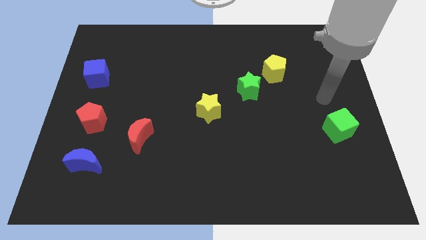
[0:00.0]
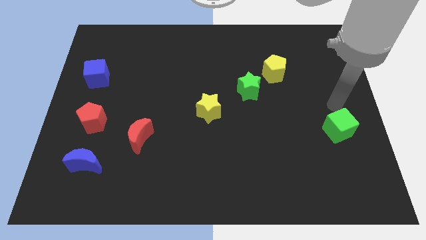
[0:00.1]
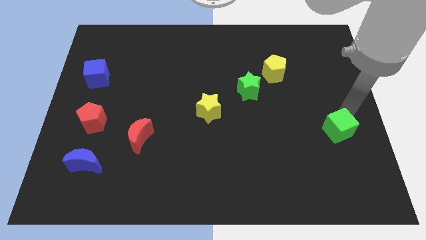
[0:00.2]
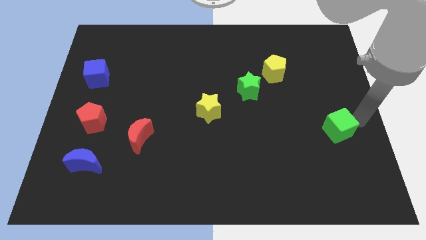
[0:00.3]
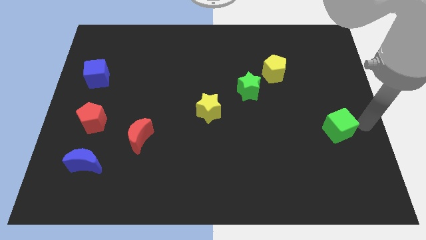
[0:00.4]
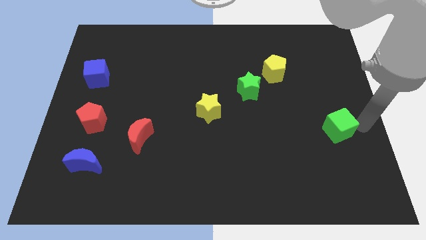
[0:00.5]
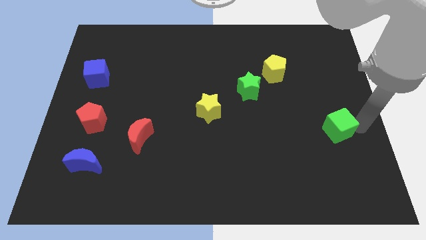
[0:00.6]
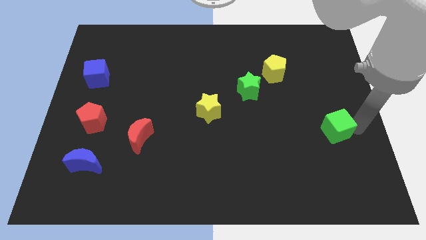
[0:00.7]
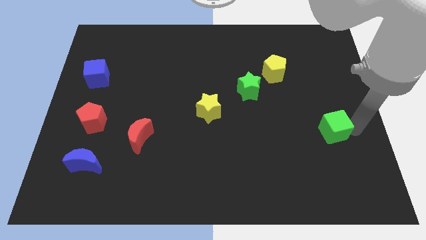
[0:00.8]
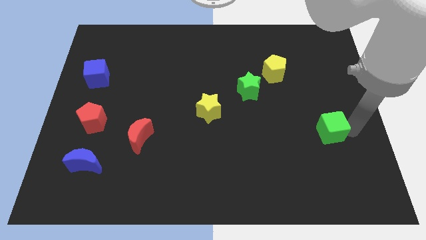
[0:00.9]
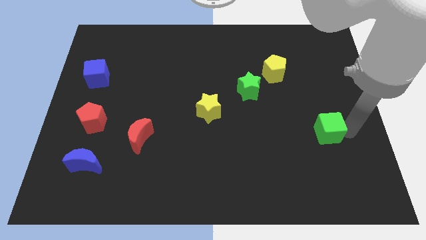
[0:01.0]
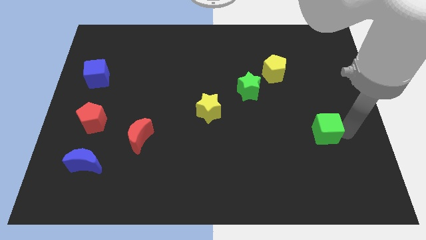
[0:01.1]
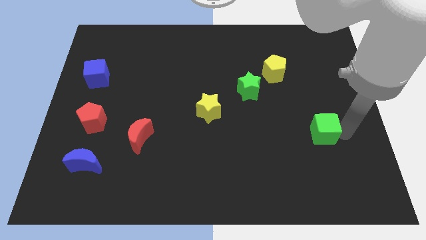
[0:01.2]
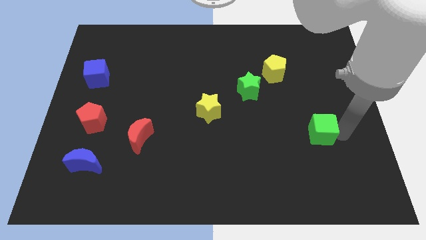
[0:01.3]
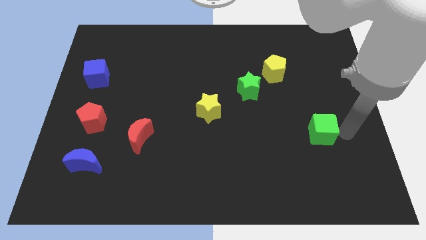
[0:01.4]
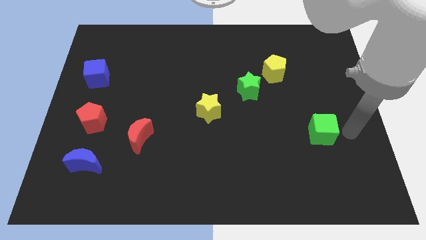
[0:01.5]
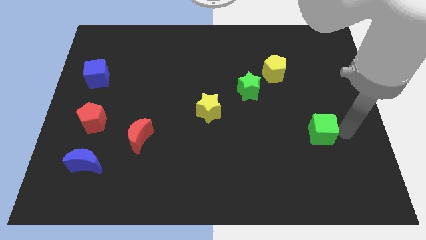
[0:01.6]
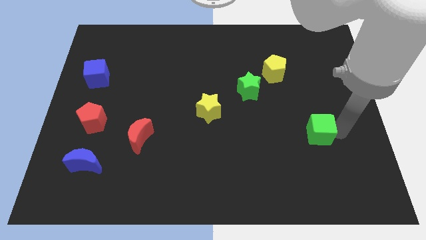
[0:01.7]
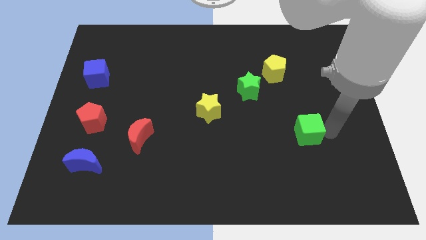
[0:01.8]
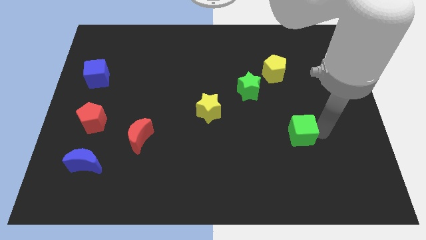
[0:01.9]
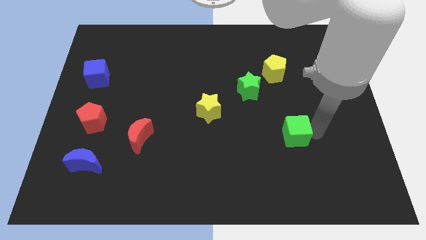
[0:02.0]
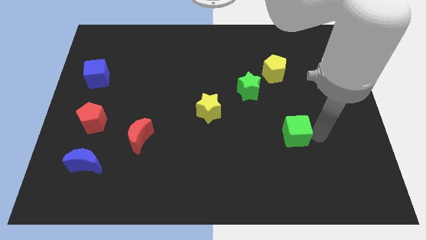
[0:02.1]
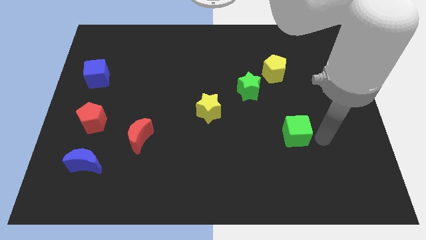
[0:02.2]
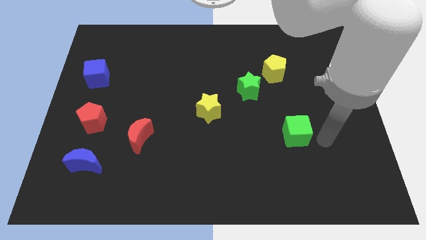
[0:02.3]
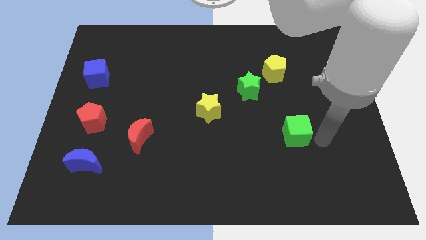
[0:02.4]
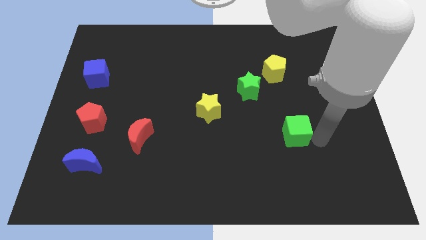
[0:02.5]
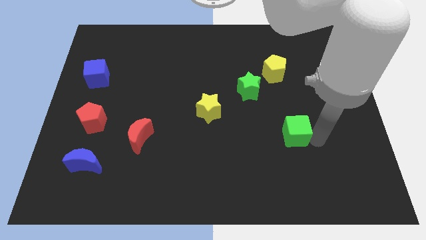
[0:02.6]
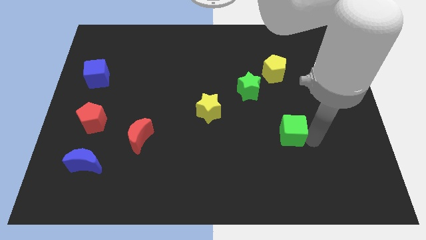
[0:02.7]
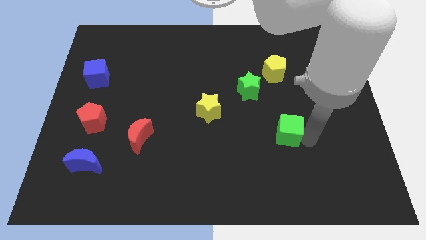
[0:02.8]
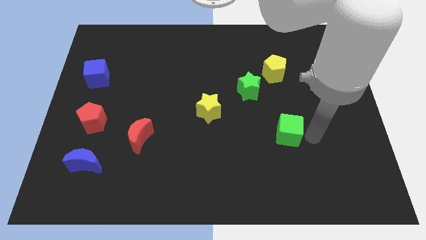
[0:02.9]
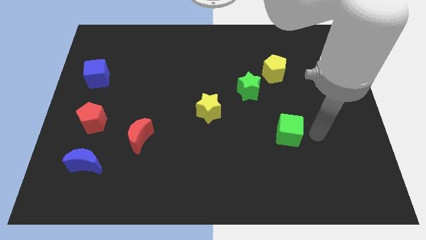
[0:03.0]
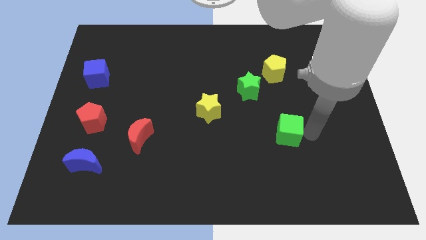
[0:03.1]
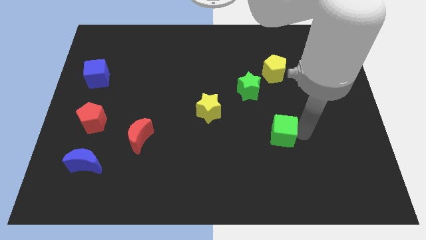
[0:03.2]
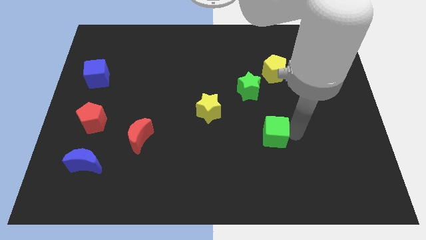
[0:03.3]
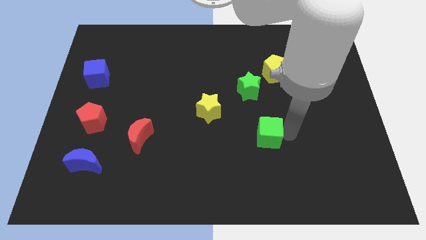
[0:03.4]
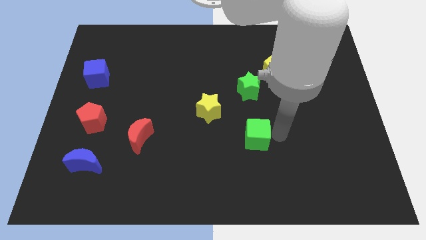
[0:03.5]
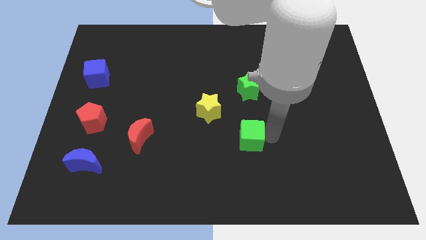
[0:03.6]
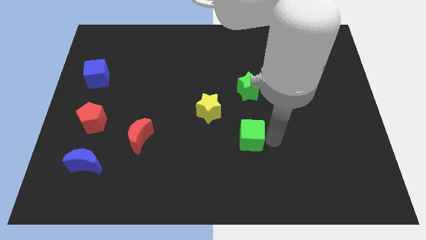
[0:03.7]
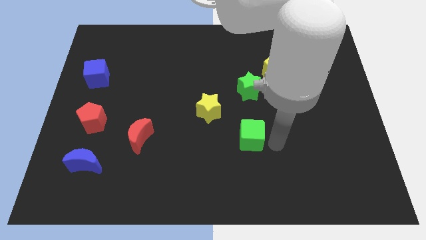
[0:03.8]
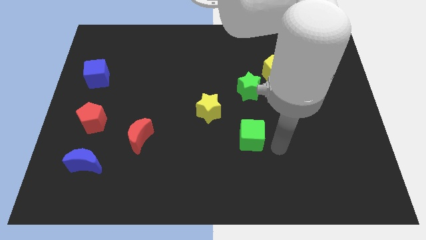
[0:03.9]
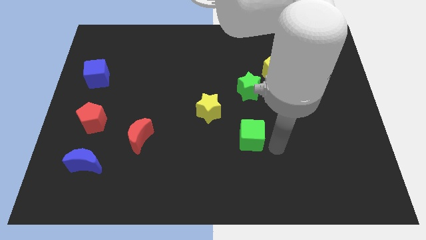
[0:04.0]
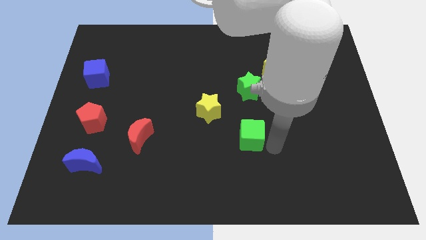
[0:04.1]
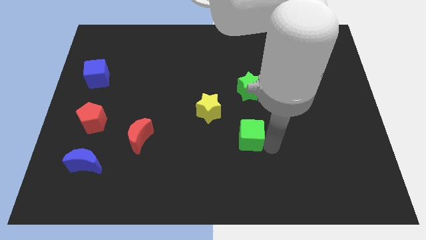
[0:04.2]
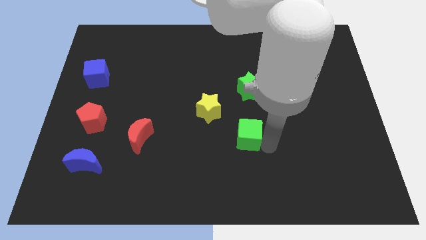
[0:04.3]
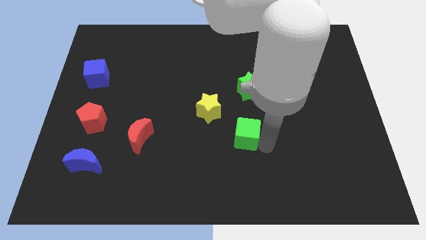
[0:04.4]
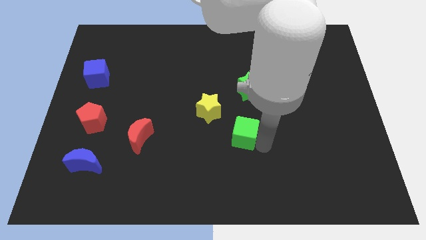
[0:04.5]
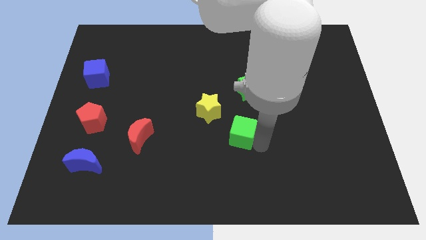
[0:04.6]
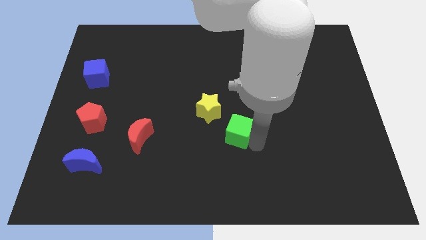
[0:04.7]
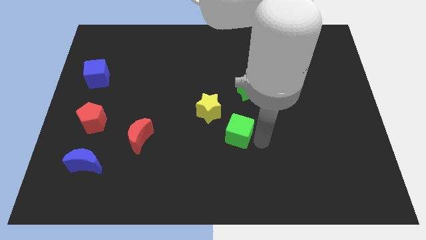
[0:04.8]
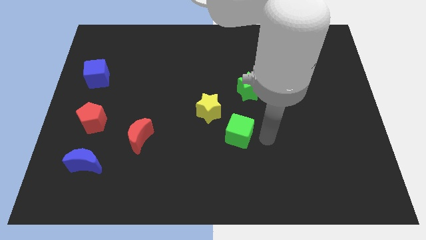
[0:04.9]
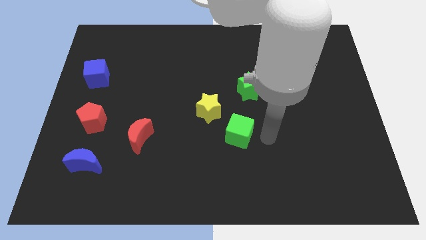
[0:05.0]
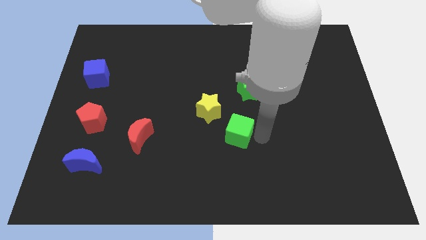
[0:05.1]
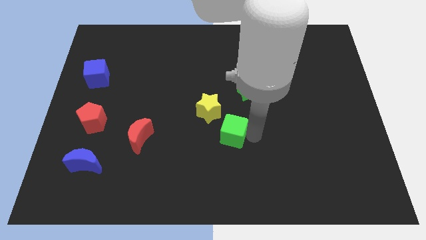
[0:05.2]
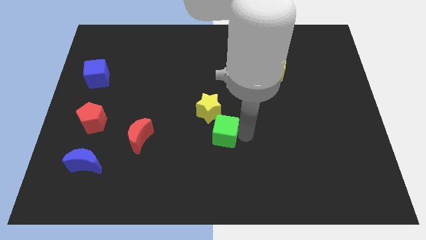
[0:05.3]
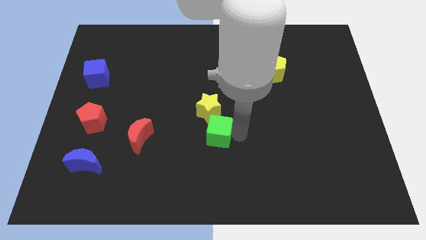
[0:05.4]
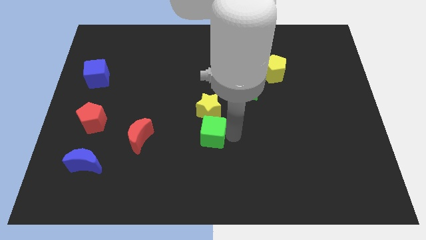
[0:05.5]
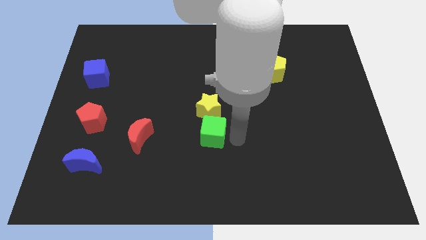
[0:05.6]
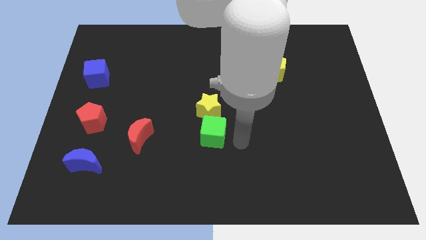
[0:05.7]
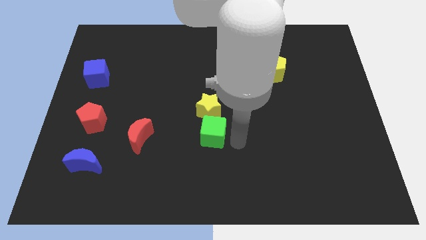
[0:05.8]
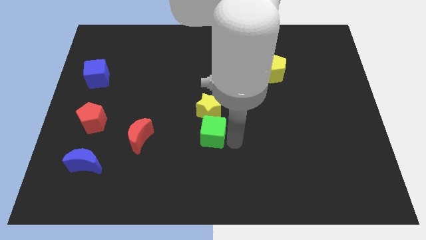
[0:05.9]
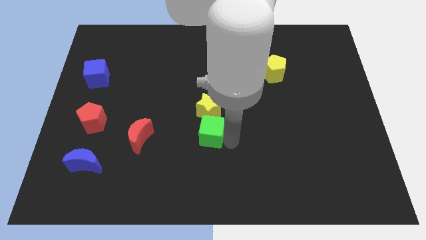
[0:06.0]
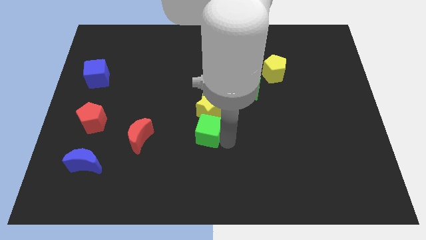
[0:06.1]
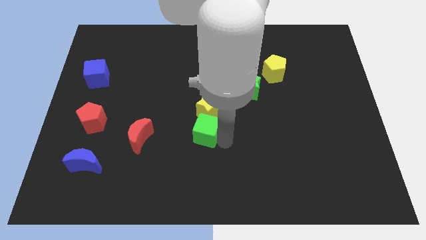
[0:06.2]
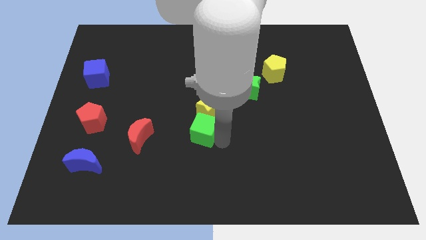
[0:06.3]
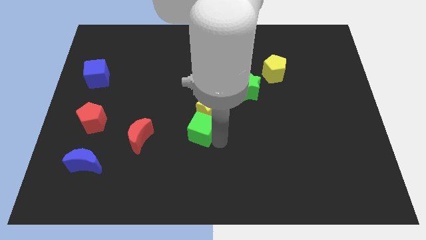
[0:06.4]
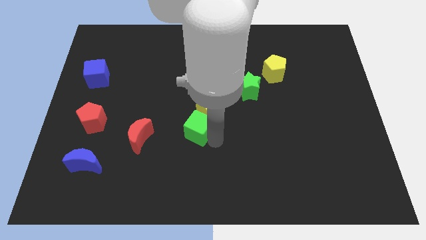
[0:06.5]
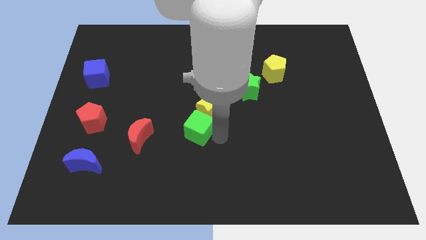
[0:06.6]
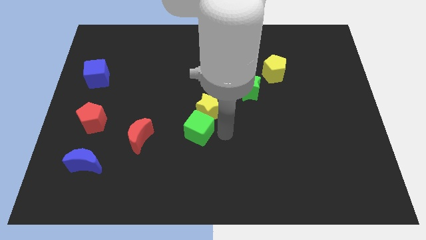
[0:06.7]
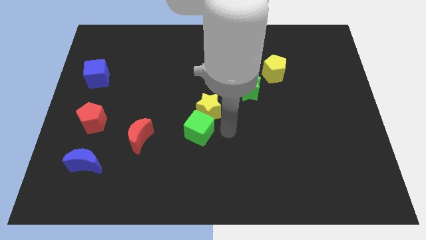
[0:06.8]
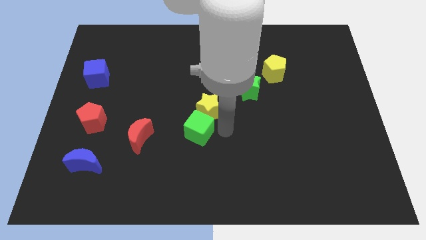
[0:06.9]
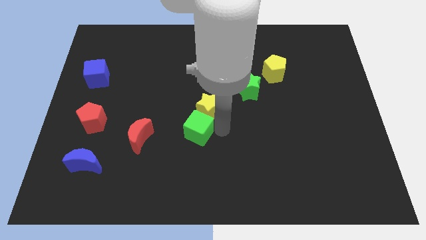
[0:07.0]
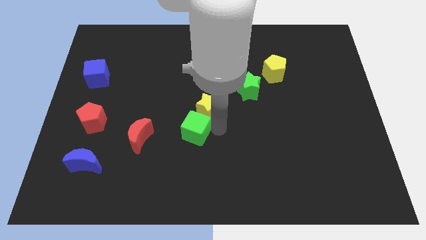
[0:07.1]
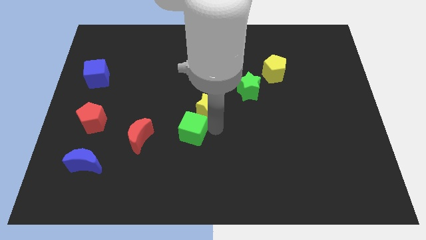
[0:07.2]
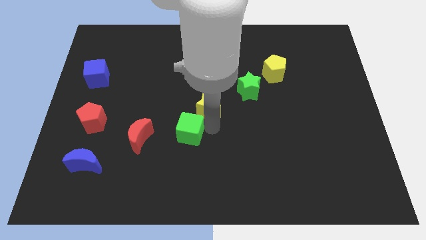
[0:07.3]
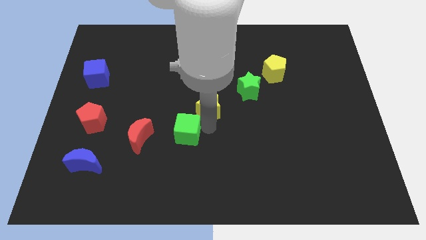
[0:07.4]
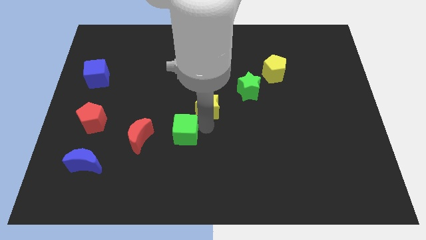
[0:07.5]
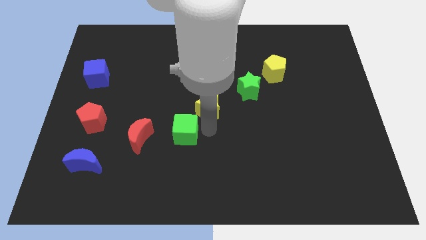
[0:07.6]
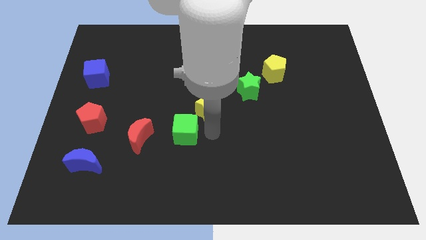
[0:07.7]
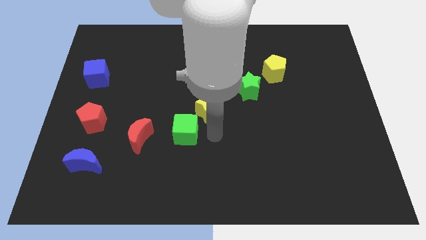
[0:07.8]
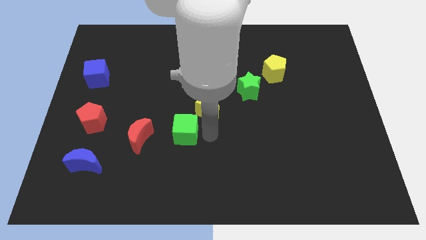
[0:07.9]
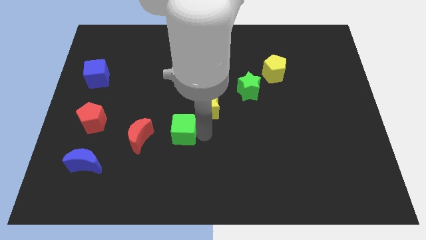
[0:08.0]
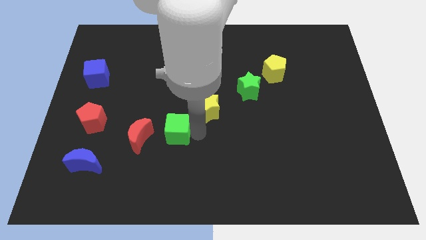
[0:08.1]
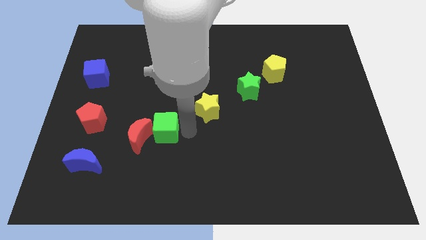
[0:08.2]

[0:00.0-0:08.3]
slide the green cube next to the red moon
